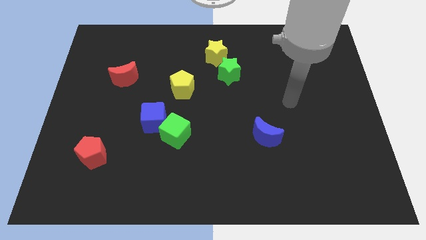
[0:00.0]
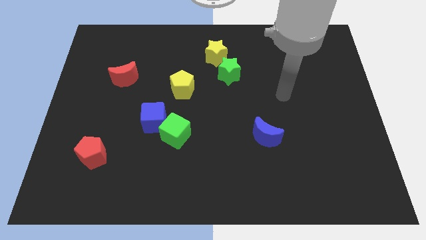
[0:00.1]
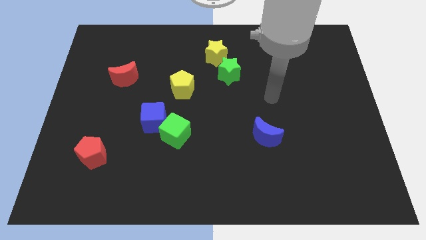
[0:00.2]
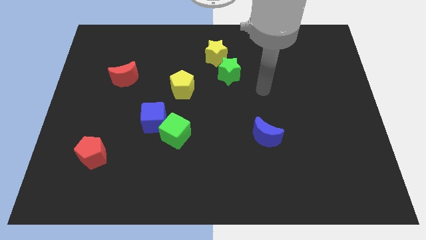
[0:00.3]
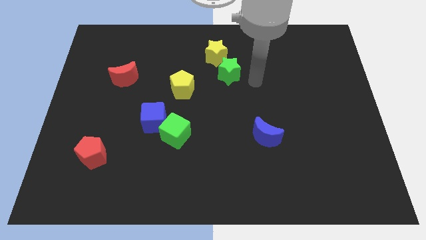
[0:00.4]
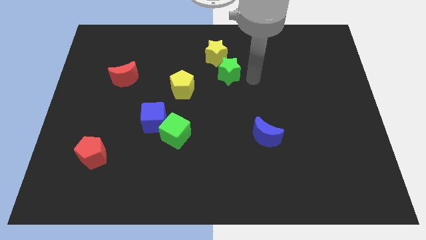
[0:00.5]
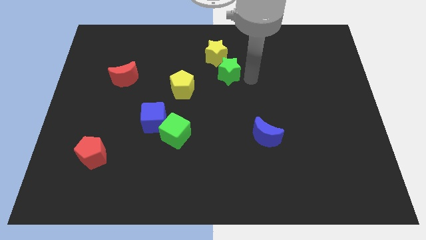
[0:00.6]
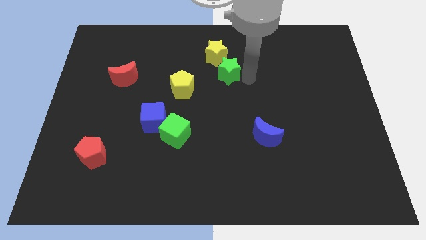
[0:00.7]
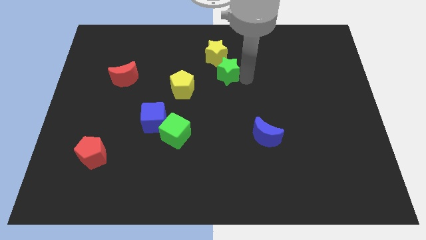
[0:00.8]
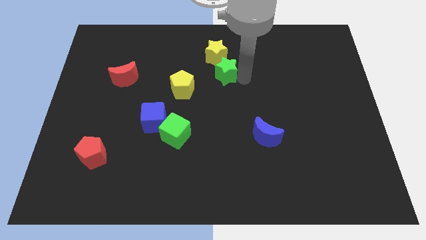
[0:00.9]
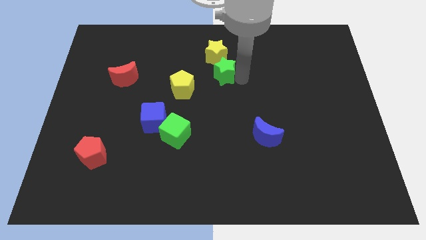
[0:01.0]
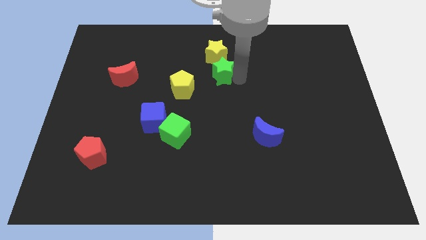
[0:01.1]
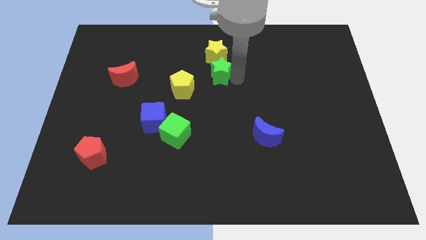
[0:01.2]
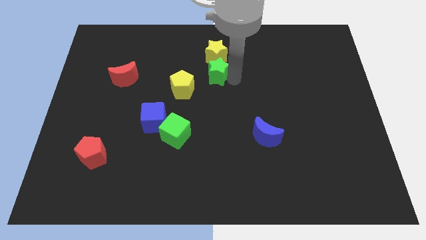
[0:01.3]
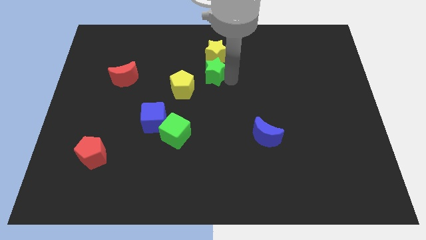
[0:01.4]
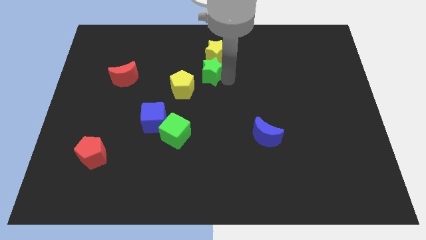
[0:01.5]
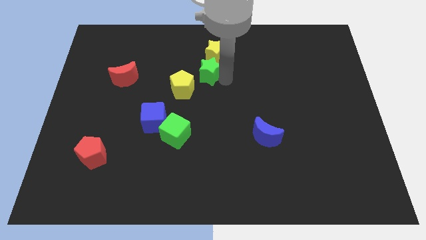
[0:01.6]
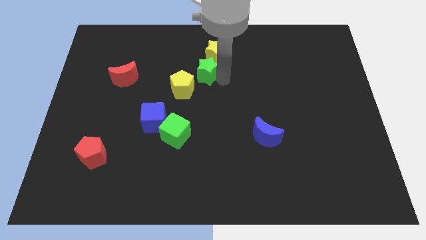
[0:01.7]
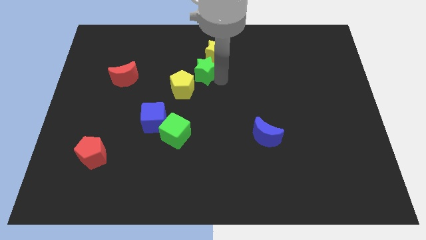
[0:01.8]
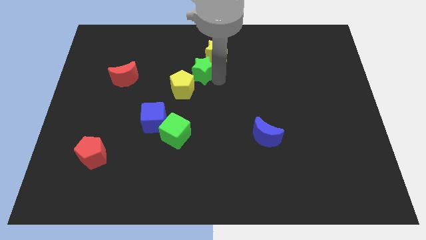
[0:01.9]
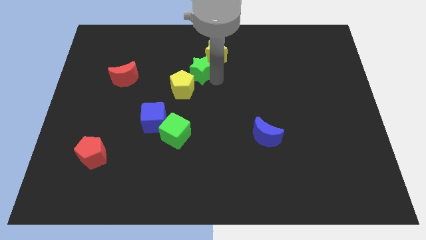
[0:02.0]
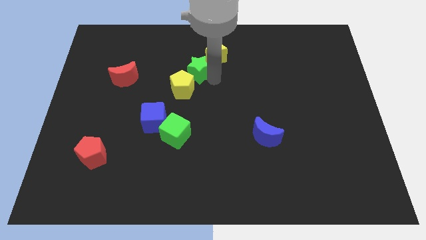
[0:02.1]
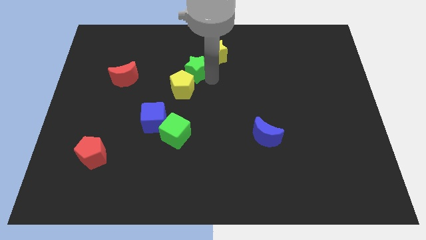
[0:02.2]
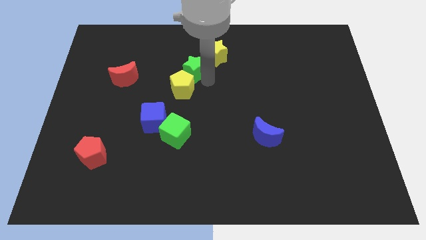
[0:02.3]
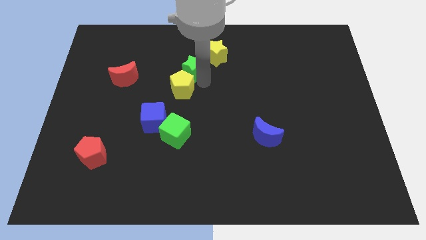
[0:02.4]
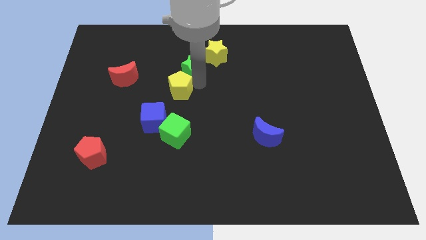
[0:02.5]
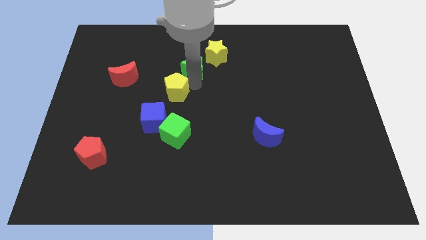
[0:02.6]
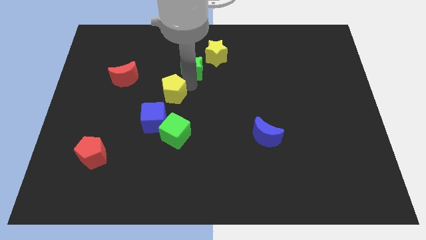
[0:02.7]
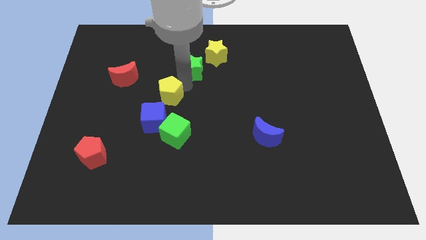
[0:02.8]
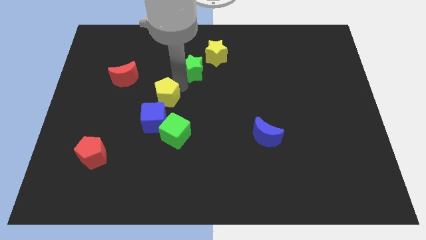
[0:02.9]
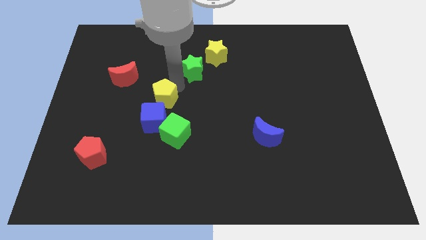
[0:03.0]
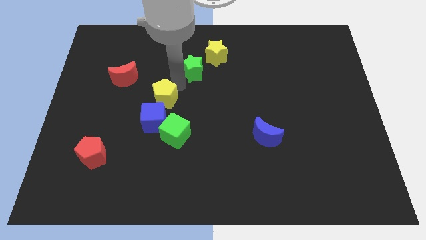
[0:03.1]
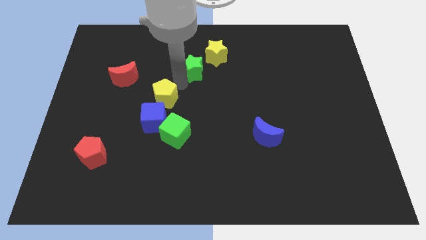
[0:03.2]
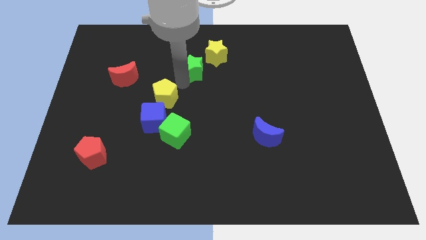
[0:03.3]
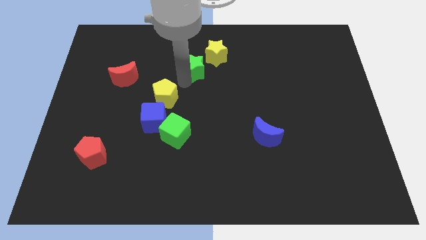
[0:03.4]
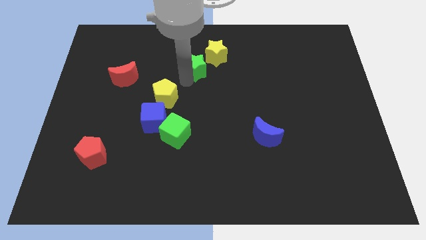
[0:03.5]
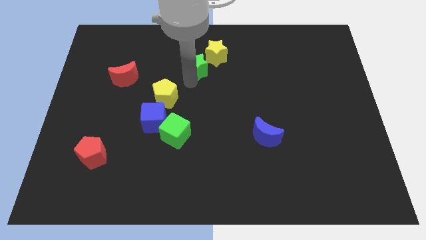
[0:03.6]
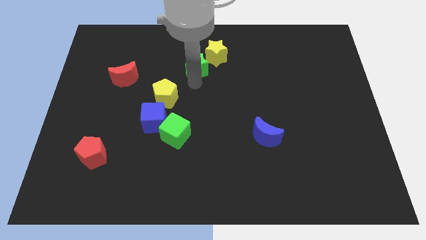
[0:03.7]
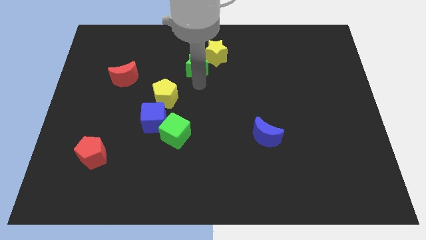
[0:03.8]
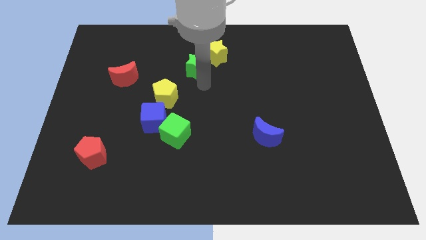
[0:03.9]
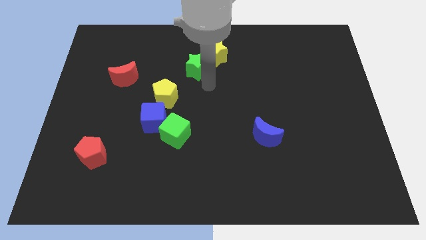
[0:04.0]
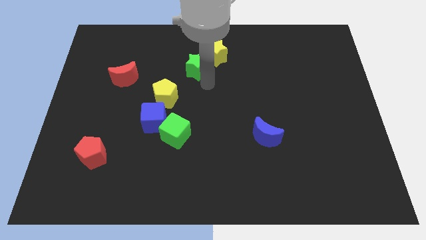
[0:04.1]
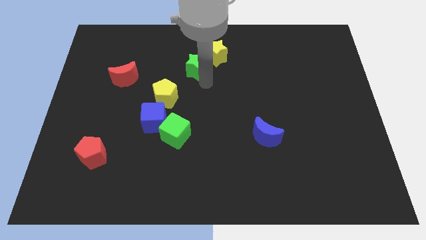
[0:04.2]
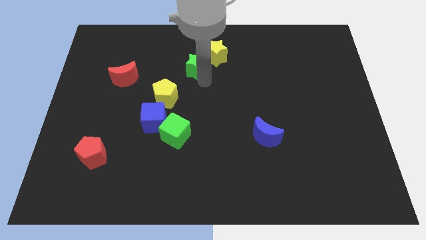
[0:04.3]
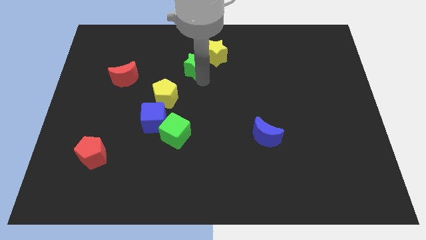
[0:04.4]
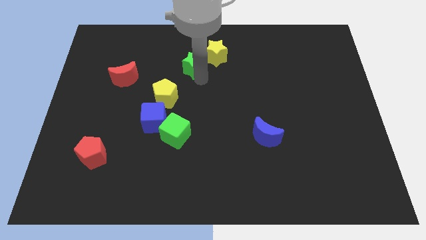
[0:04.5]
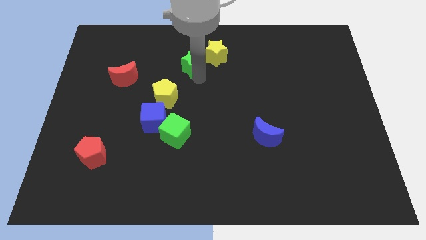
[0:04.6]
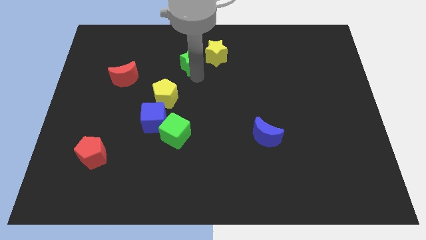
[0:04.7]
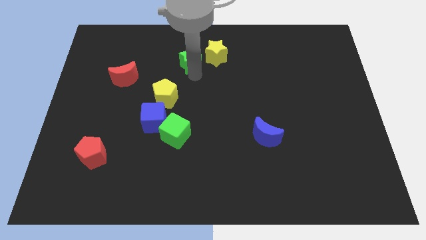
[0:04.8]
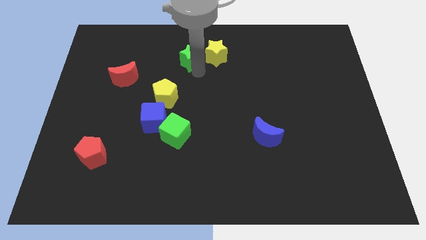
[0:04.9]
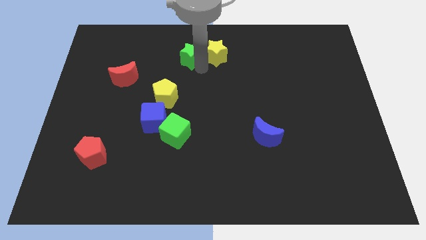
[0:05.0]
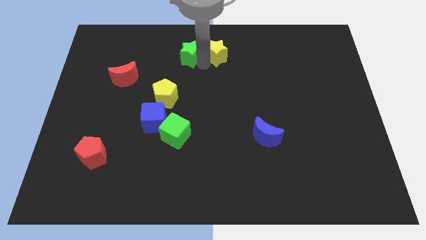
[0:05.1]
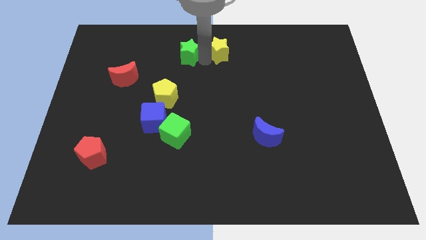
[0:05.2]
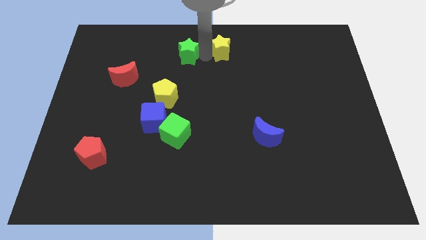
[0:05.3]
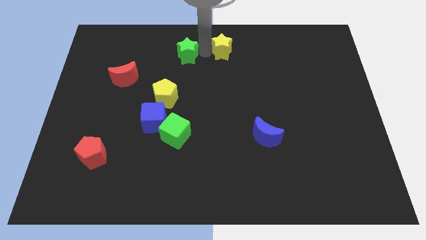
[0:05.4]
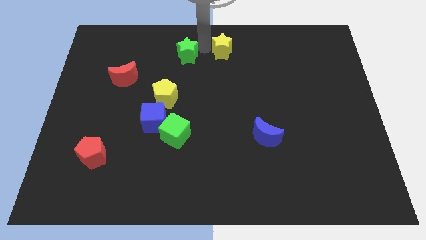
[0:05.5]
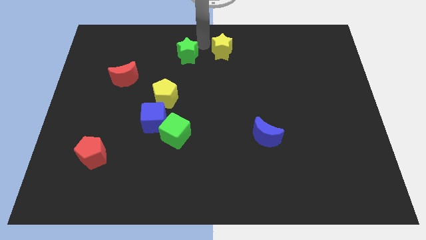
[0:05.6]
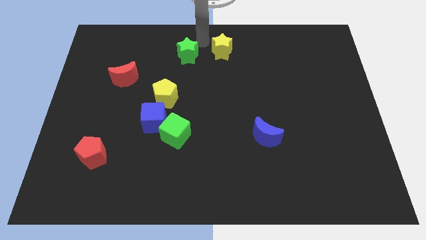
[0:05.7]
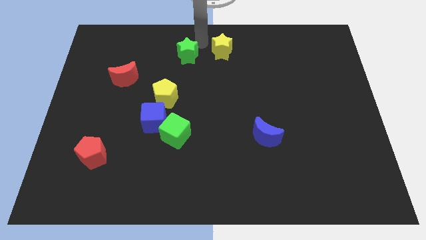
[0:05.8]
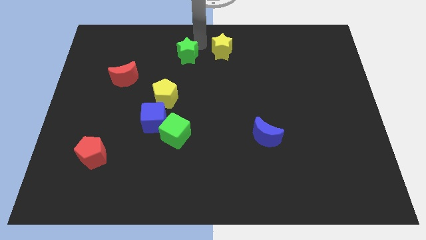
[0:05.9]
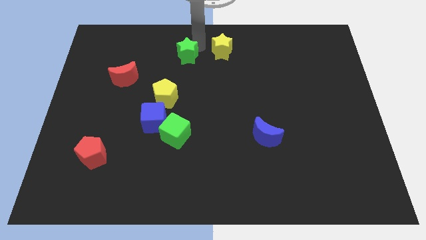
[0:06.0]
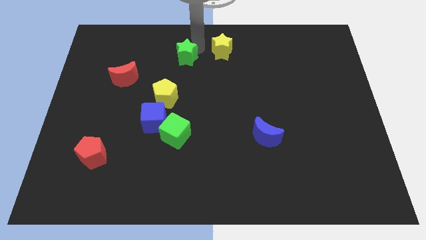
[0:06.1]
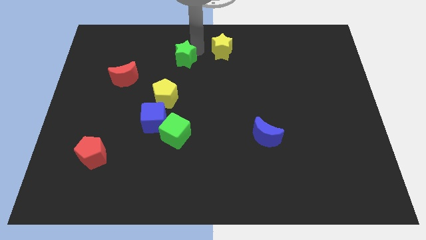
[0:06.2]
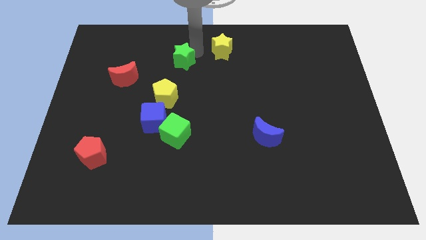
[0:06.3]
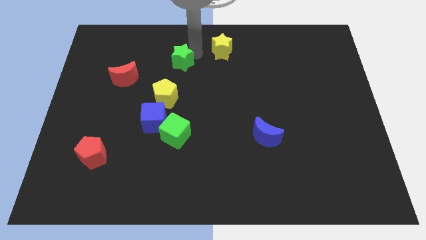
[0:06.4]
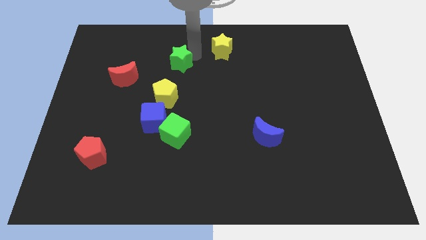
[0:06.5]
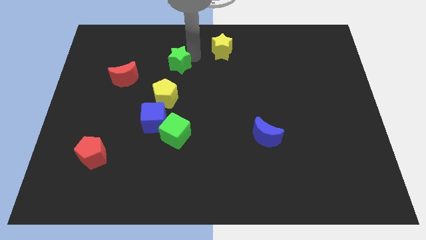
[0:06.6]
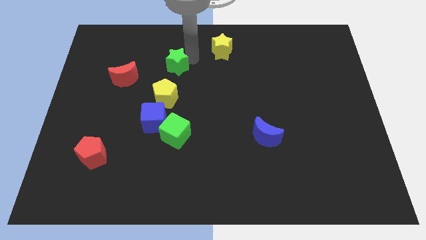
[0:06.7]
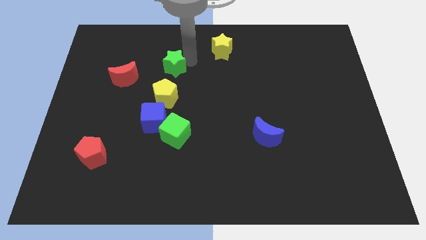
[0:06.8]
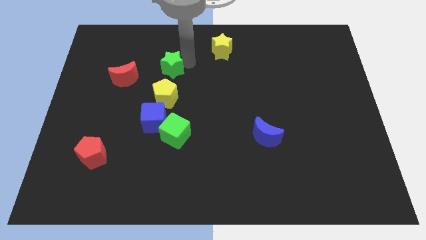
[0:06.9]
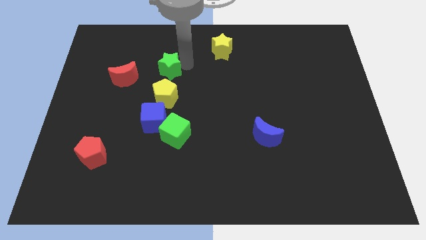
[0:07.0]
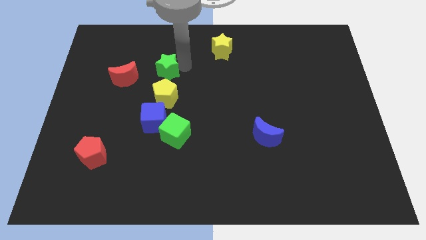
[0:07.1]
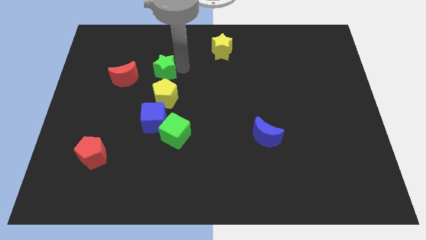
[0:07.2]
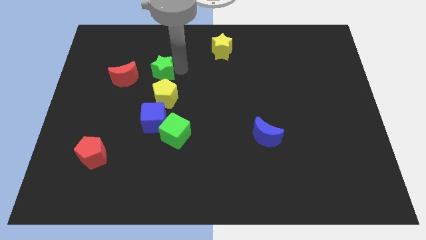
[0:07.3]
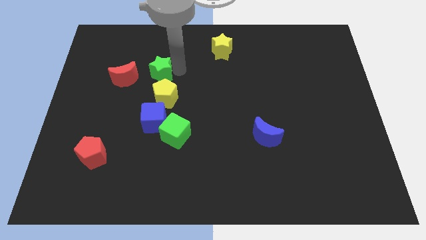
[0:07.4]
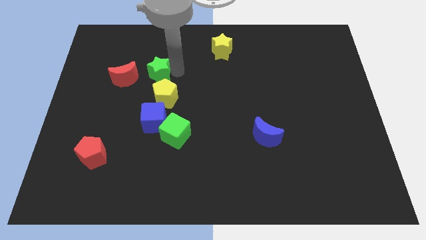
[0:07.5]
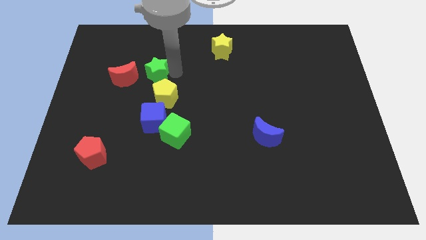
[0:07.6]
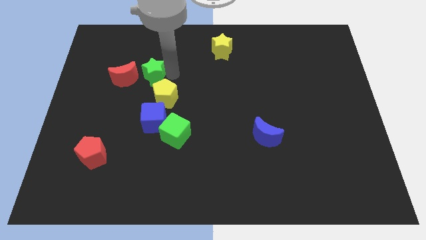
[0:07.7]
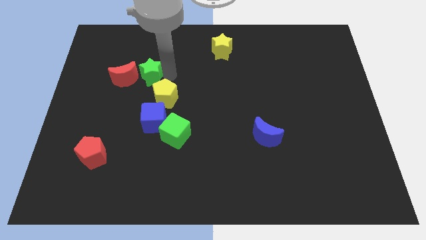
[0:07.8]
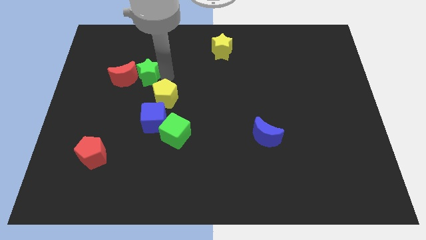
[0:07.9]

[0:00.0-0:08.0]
put the green star towards the red moon
